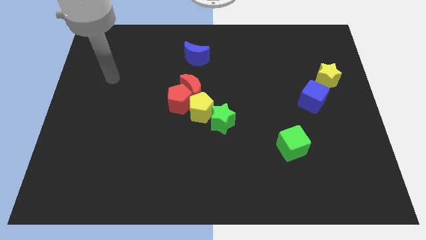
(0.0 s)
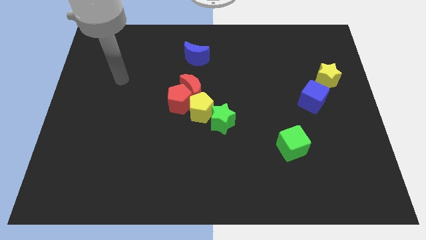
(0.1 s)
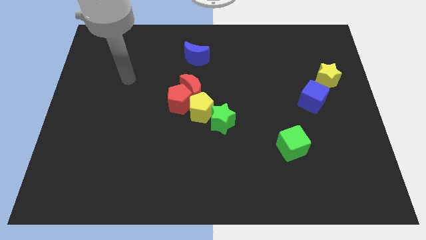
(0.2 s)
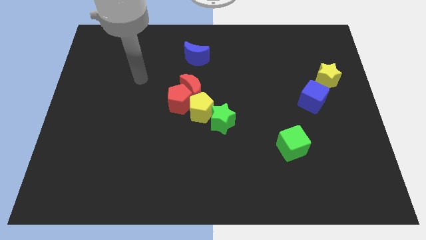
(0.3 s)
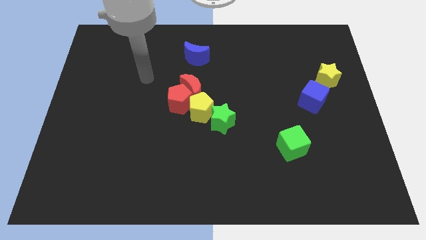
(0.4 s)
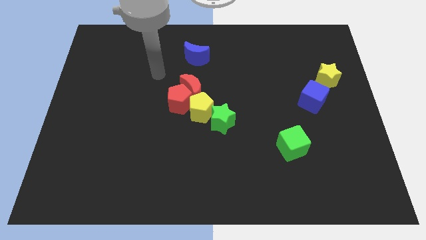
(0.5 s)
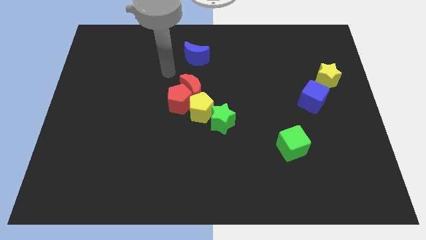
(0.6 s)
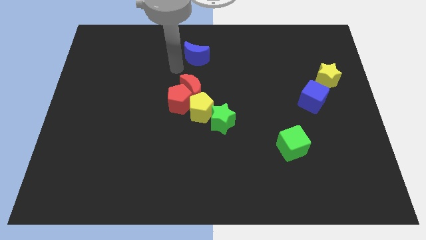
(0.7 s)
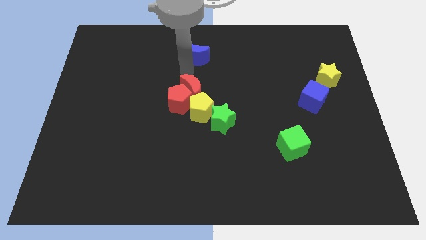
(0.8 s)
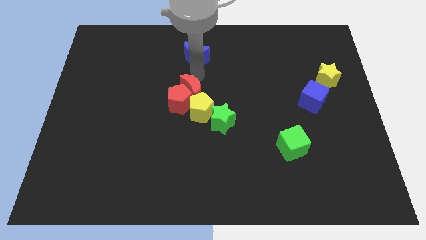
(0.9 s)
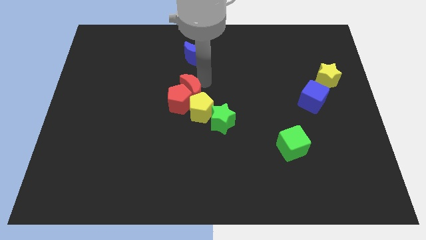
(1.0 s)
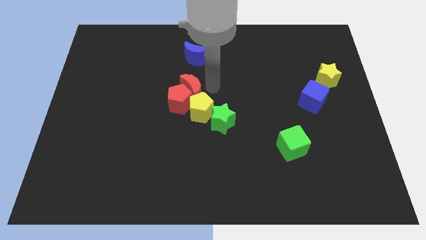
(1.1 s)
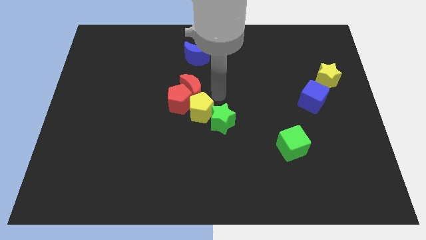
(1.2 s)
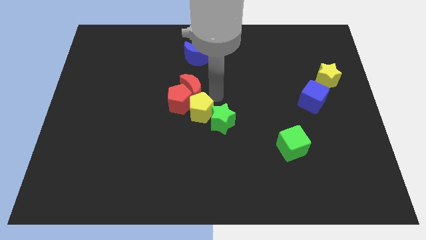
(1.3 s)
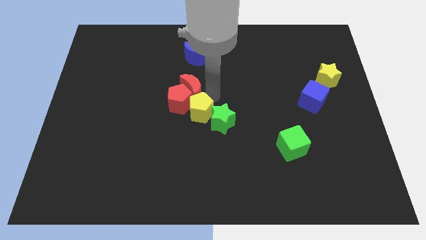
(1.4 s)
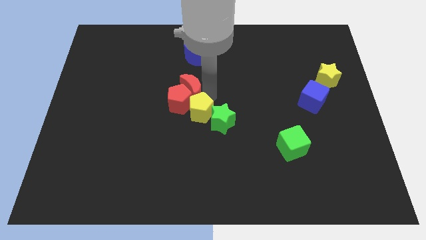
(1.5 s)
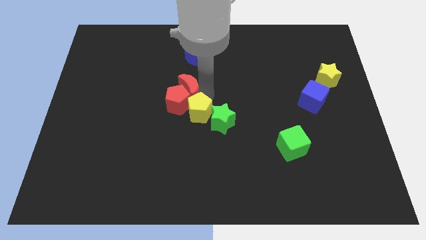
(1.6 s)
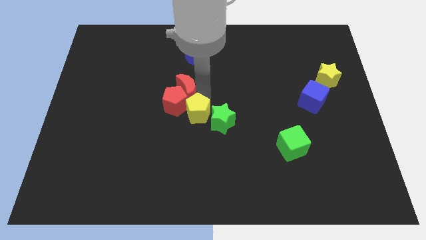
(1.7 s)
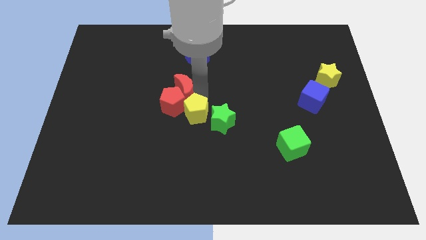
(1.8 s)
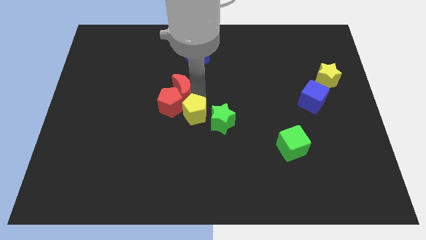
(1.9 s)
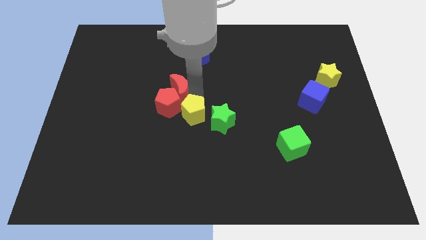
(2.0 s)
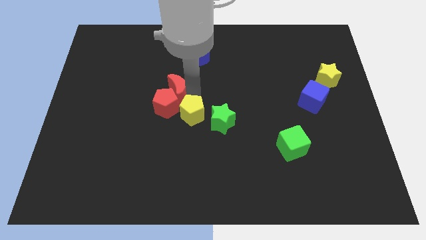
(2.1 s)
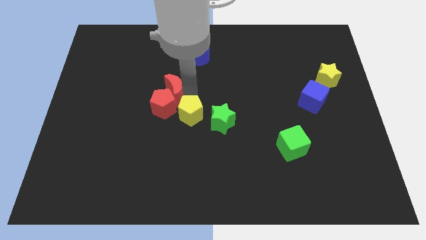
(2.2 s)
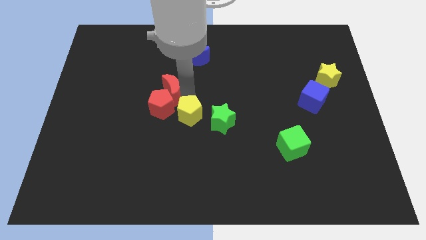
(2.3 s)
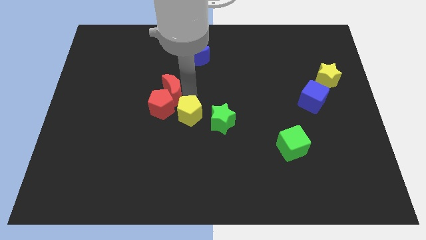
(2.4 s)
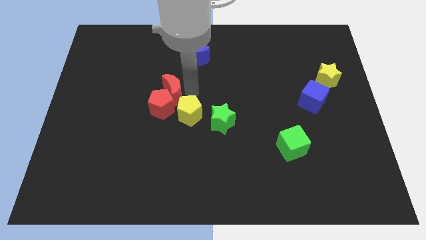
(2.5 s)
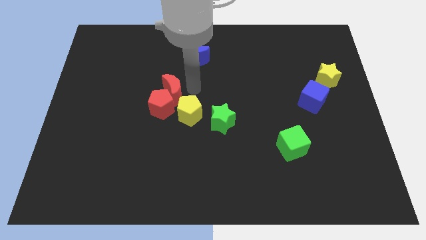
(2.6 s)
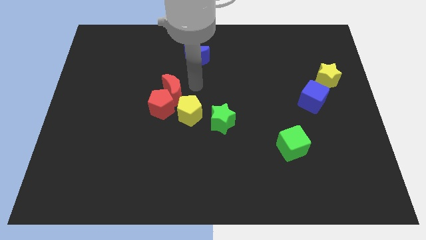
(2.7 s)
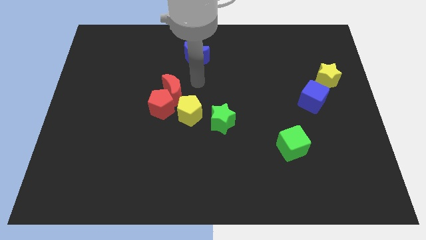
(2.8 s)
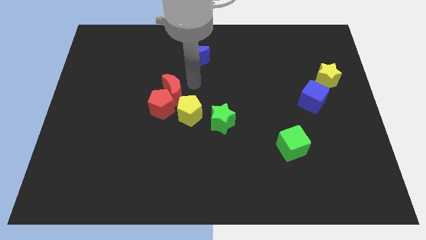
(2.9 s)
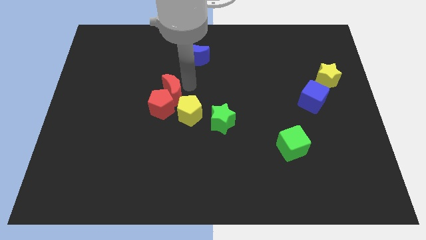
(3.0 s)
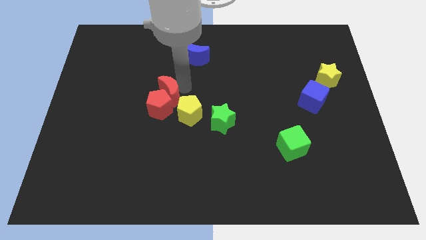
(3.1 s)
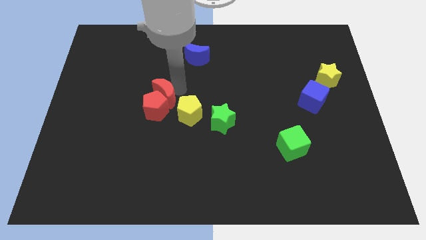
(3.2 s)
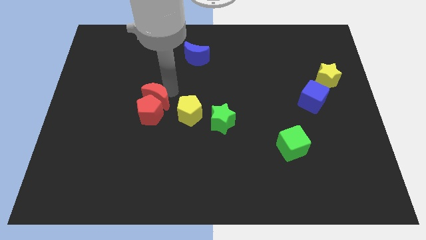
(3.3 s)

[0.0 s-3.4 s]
slightly push the red moon down and to the left

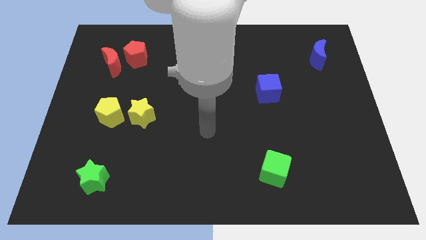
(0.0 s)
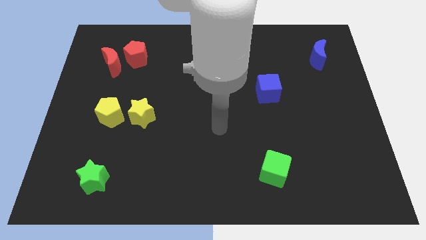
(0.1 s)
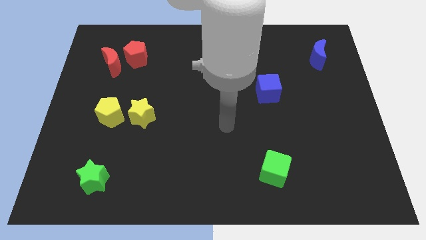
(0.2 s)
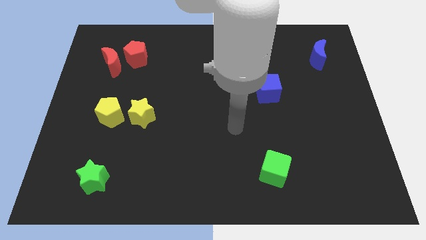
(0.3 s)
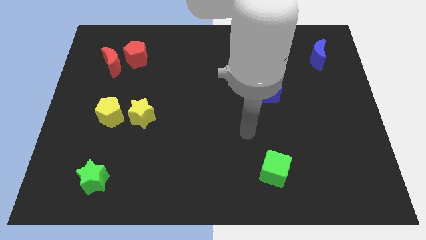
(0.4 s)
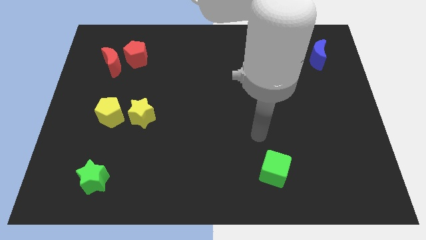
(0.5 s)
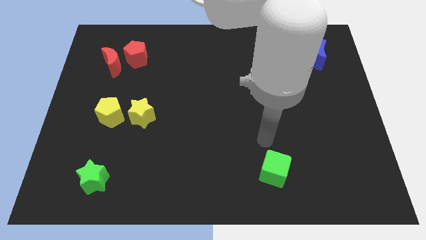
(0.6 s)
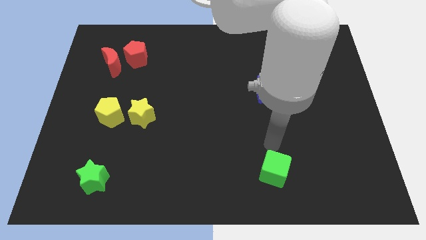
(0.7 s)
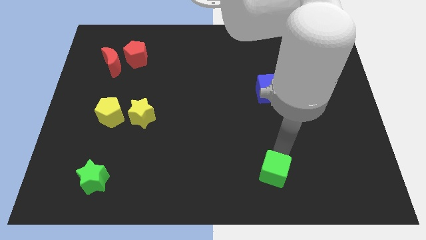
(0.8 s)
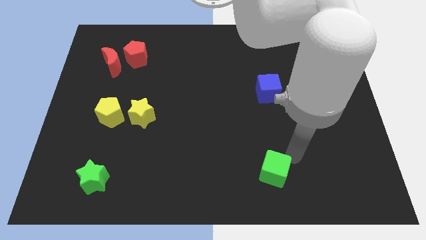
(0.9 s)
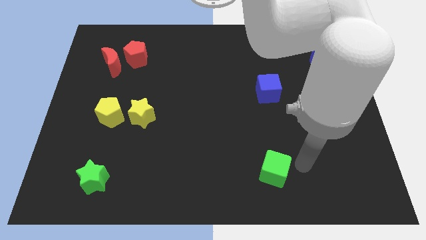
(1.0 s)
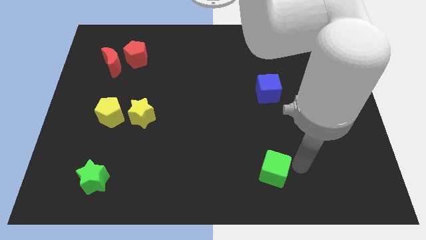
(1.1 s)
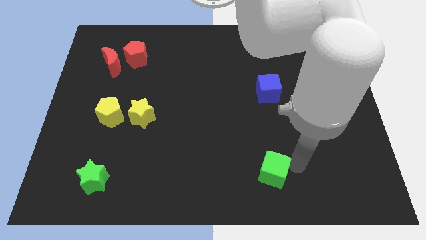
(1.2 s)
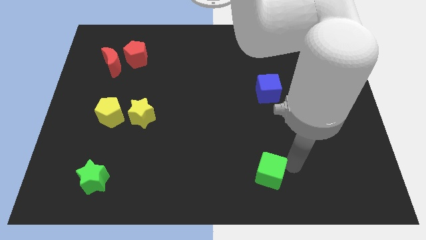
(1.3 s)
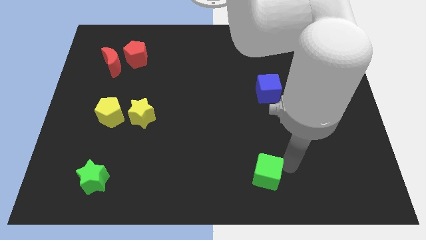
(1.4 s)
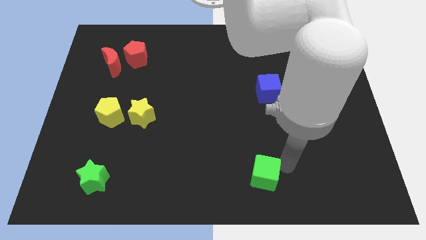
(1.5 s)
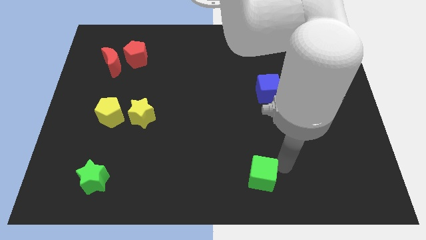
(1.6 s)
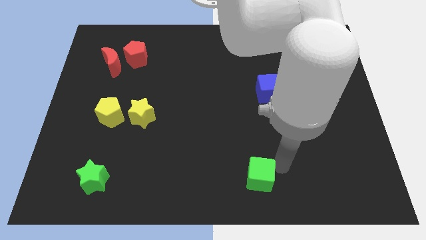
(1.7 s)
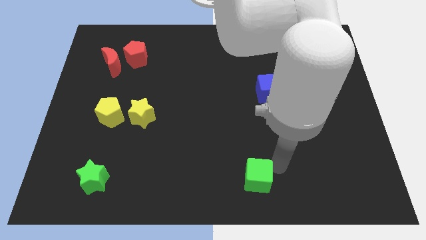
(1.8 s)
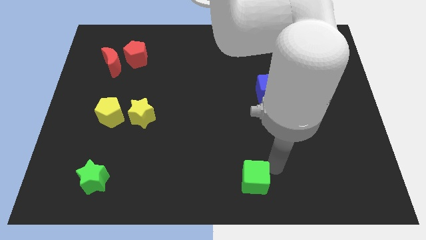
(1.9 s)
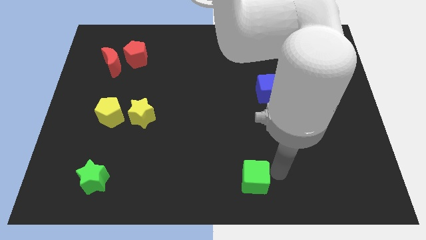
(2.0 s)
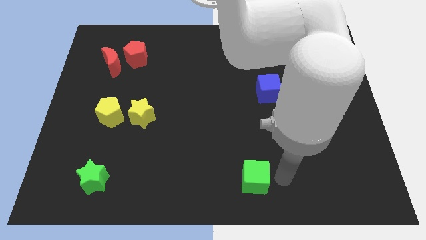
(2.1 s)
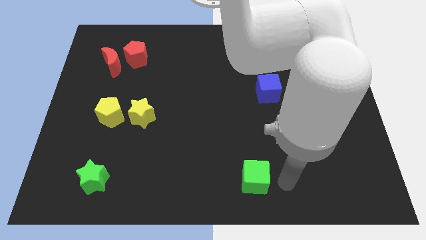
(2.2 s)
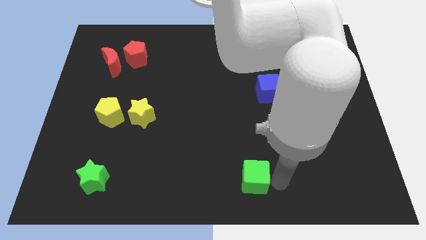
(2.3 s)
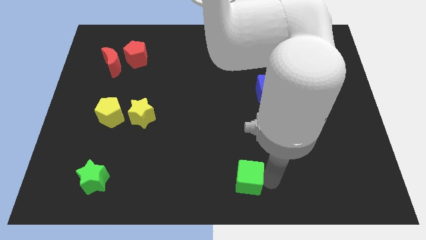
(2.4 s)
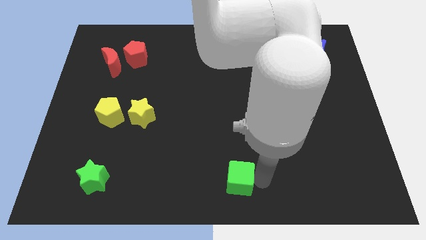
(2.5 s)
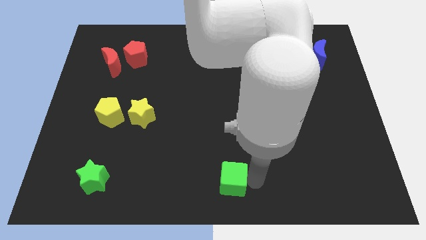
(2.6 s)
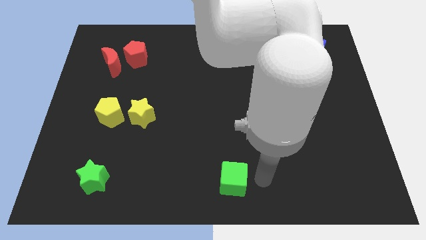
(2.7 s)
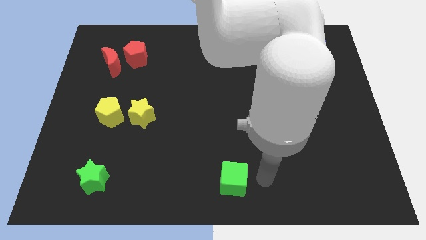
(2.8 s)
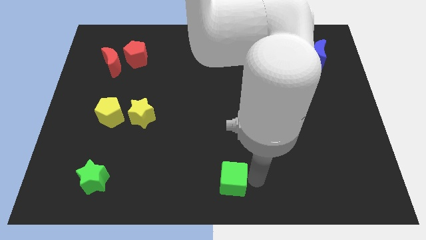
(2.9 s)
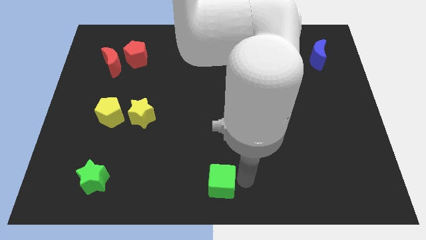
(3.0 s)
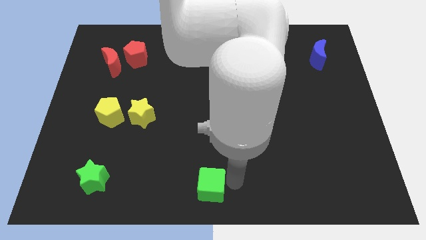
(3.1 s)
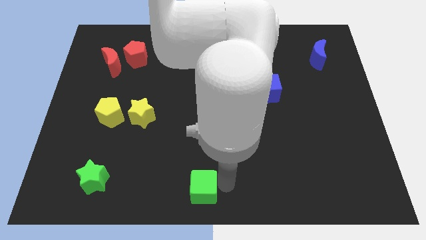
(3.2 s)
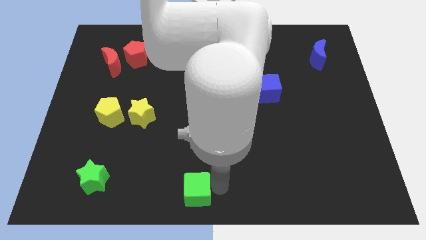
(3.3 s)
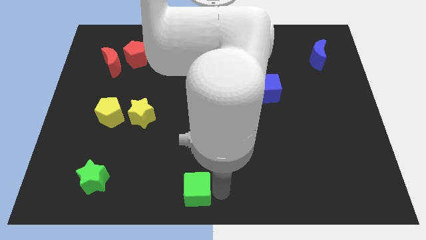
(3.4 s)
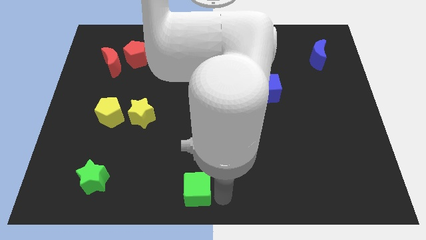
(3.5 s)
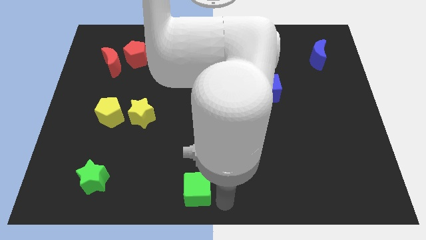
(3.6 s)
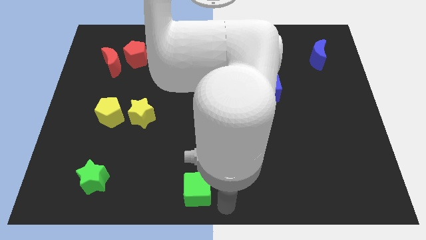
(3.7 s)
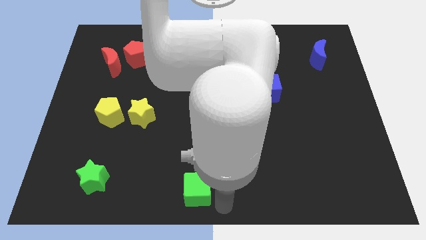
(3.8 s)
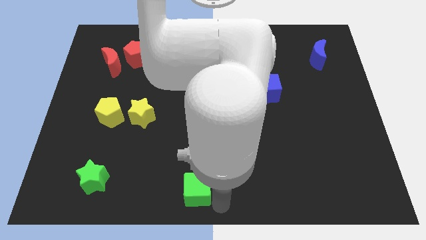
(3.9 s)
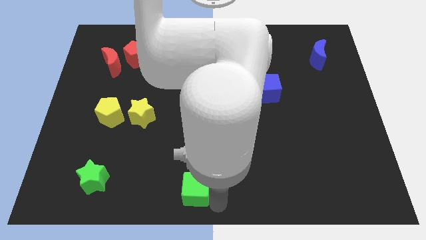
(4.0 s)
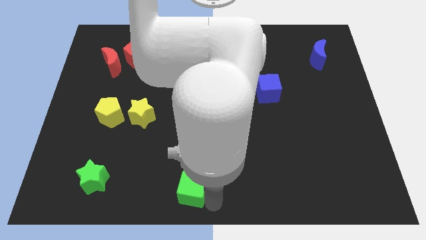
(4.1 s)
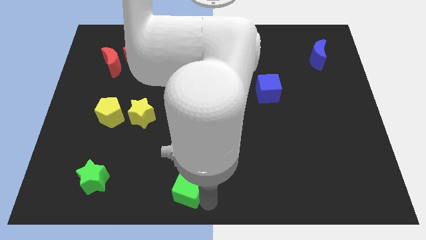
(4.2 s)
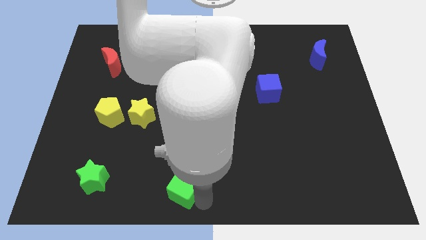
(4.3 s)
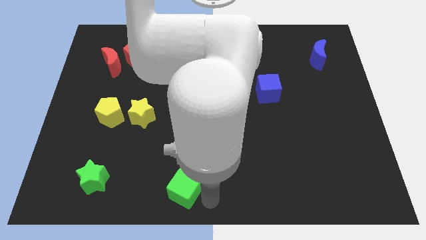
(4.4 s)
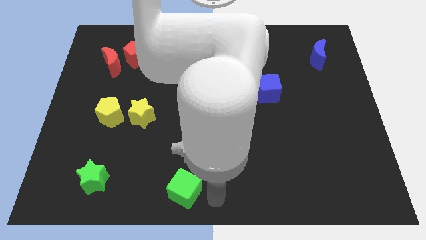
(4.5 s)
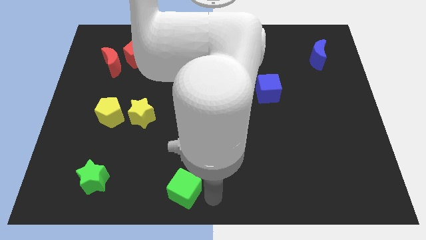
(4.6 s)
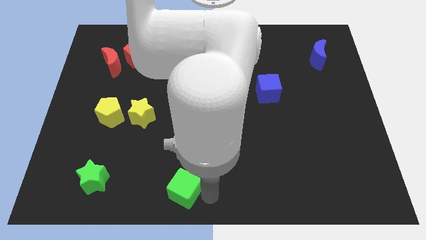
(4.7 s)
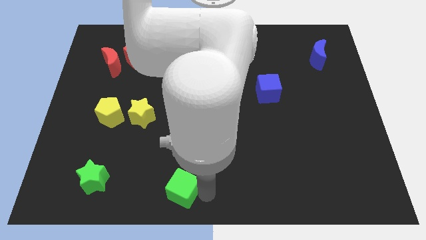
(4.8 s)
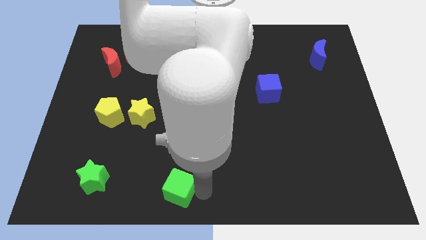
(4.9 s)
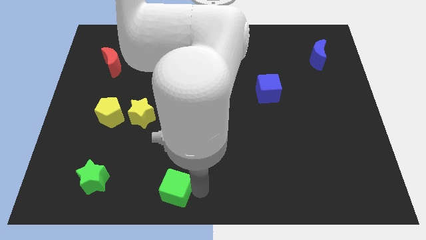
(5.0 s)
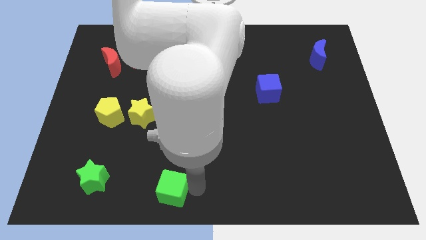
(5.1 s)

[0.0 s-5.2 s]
push the green cube left
